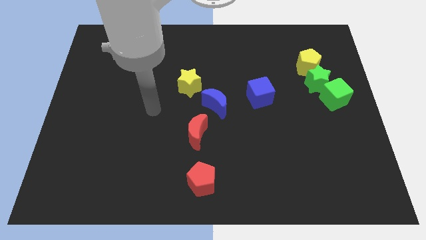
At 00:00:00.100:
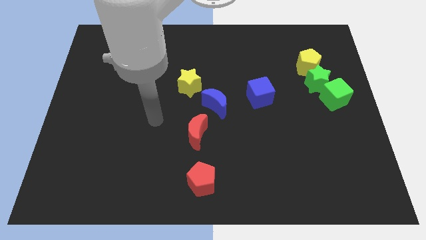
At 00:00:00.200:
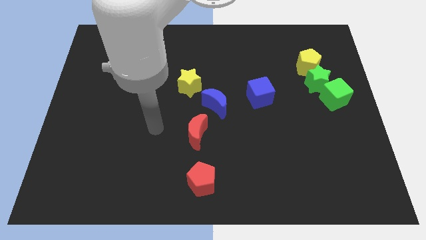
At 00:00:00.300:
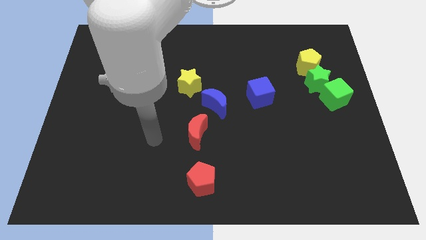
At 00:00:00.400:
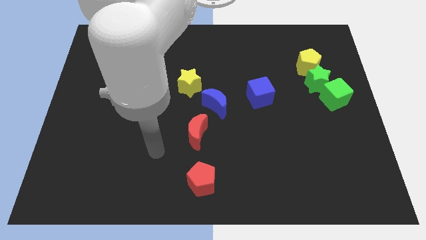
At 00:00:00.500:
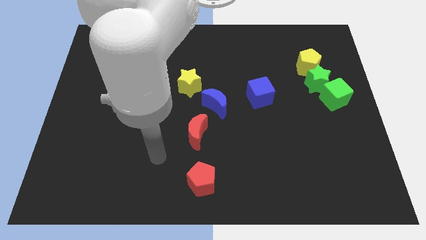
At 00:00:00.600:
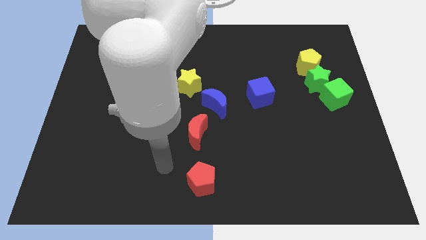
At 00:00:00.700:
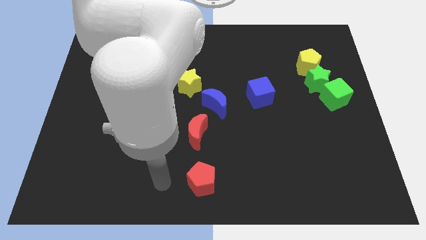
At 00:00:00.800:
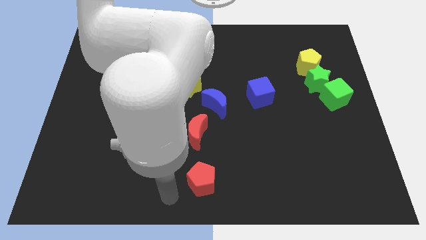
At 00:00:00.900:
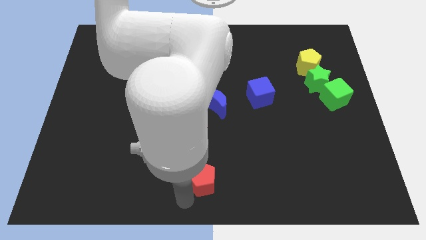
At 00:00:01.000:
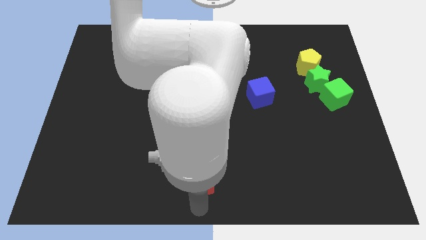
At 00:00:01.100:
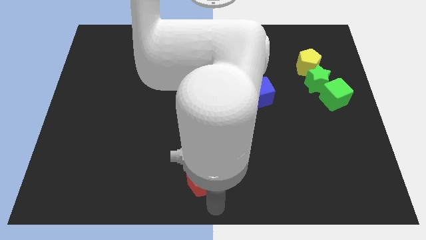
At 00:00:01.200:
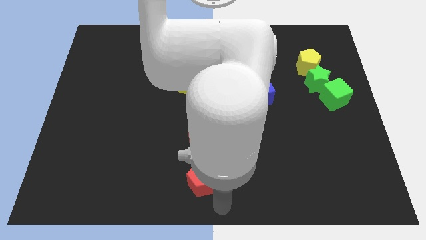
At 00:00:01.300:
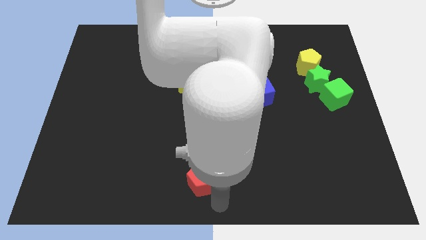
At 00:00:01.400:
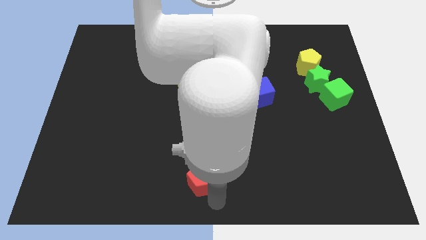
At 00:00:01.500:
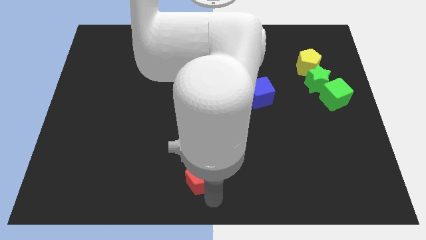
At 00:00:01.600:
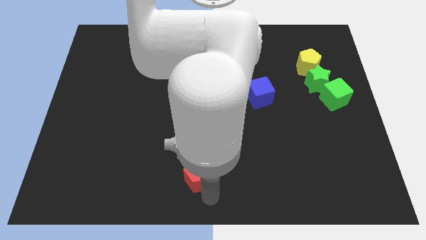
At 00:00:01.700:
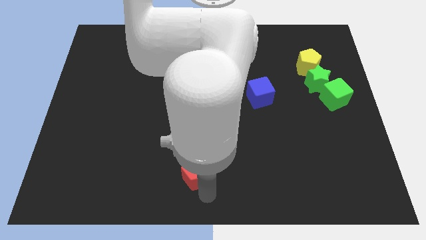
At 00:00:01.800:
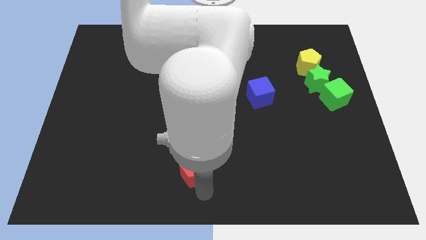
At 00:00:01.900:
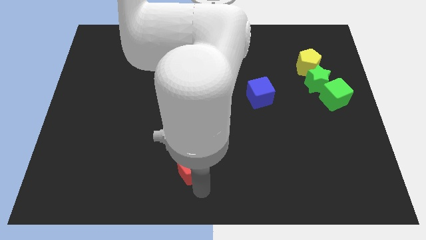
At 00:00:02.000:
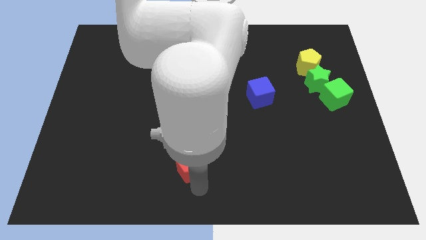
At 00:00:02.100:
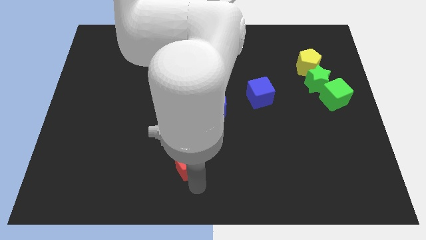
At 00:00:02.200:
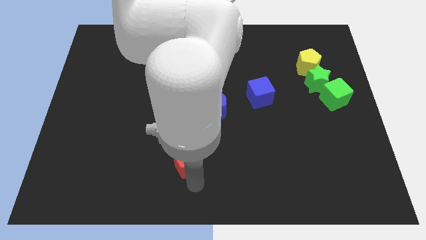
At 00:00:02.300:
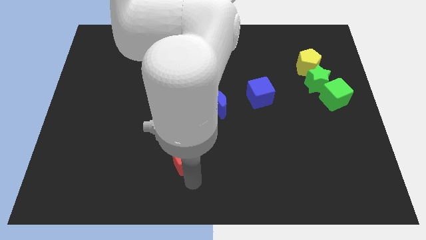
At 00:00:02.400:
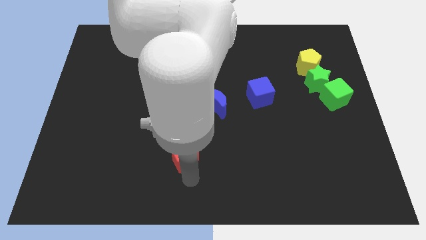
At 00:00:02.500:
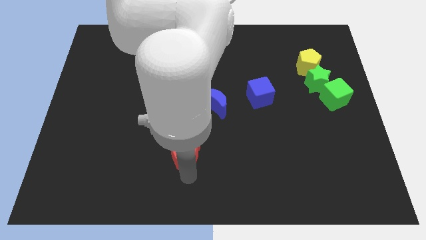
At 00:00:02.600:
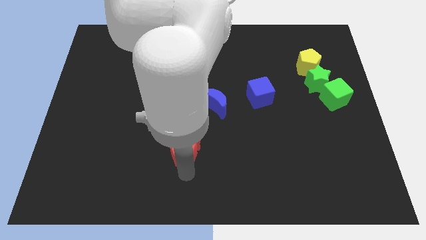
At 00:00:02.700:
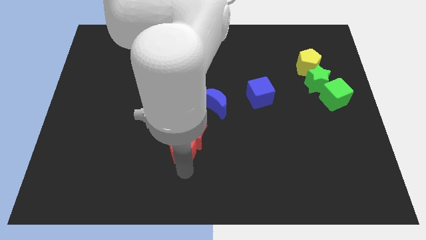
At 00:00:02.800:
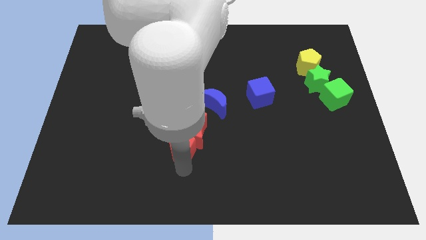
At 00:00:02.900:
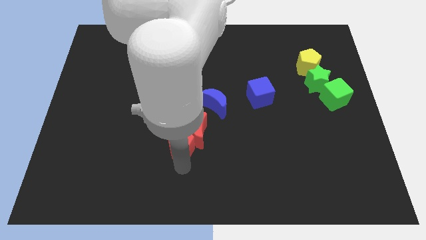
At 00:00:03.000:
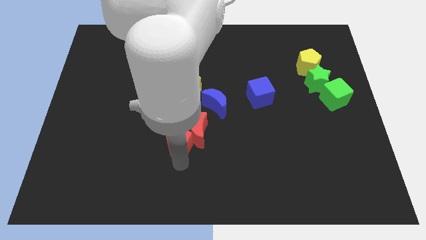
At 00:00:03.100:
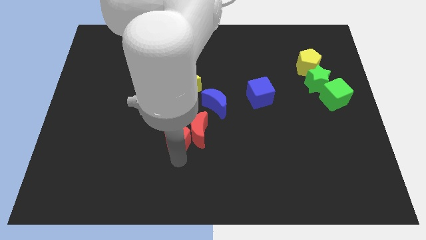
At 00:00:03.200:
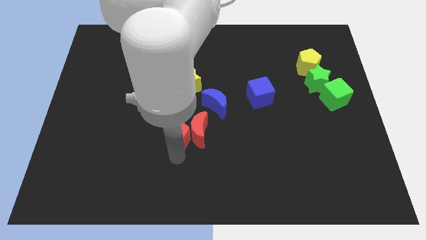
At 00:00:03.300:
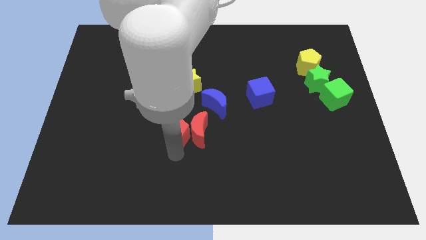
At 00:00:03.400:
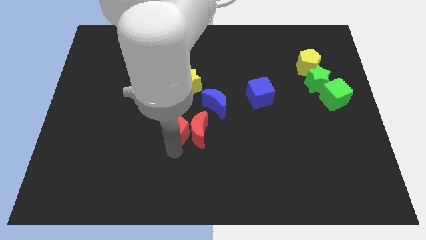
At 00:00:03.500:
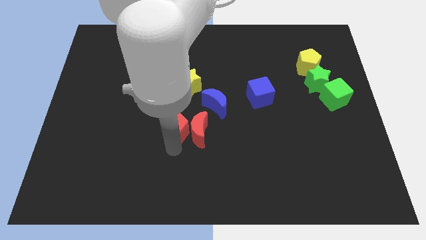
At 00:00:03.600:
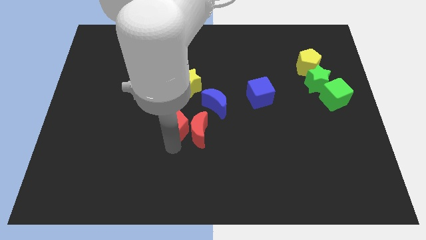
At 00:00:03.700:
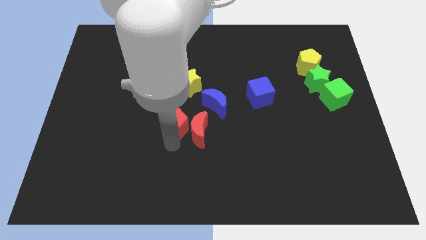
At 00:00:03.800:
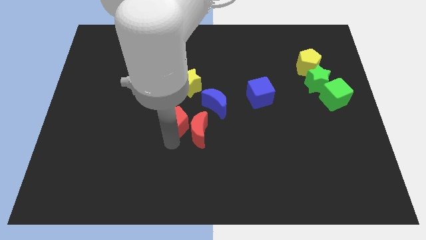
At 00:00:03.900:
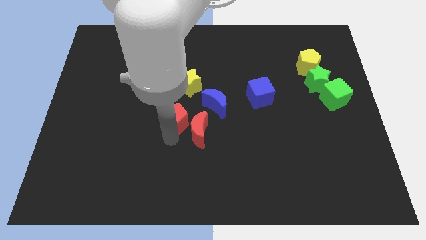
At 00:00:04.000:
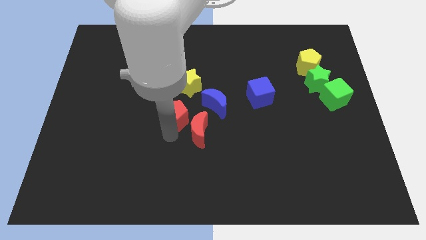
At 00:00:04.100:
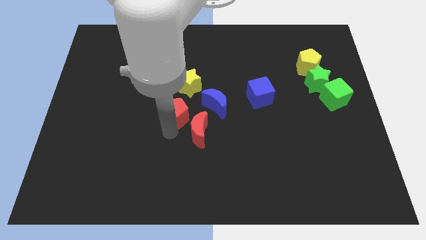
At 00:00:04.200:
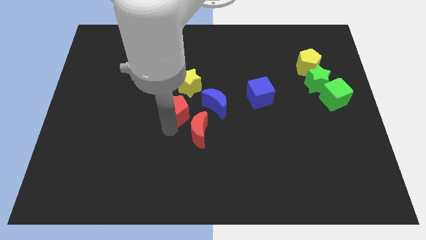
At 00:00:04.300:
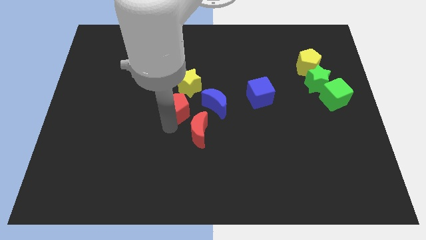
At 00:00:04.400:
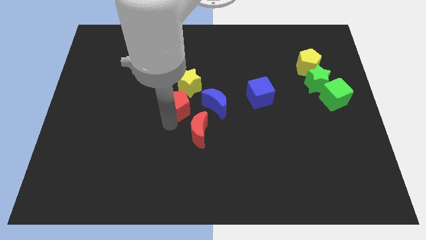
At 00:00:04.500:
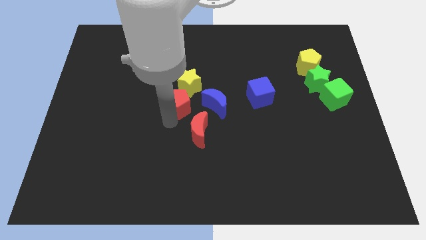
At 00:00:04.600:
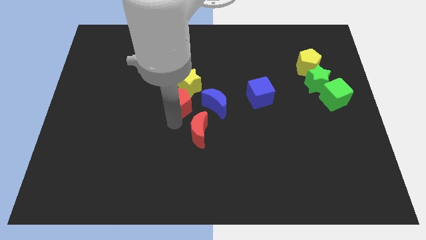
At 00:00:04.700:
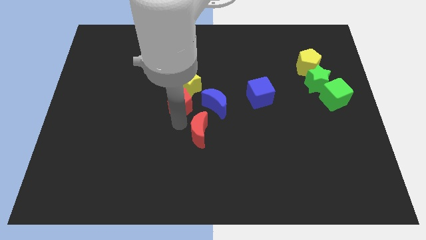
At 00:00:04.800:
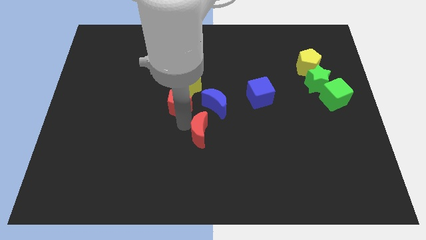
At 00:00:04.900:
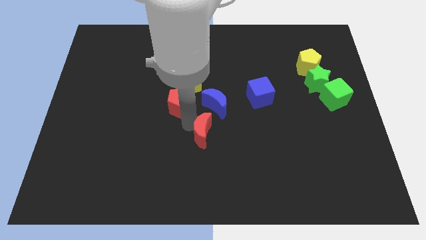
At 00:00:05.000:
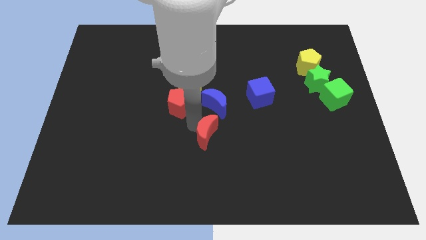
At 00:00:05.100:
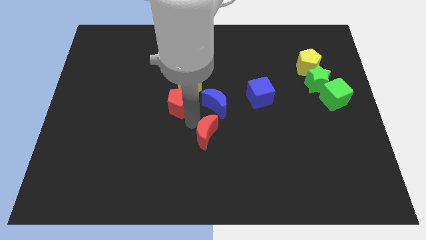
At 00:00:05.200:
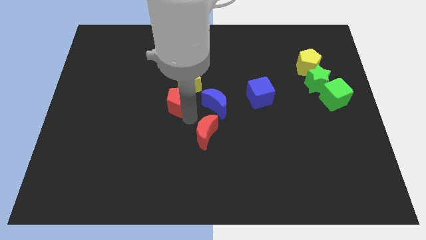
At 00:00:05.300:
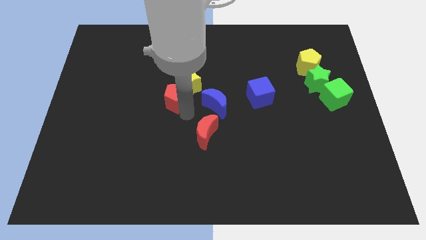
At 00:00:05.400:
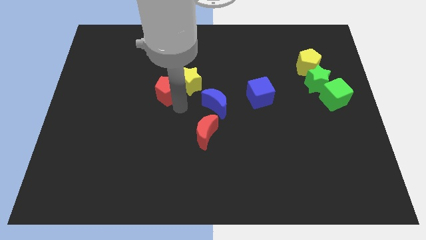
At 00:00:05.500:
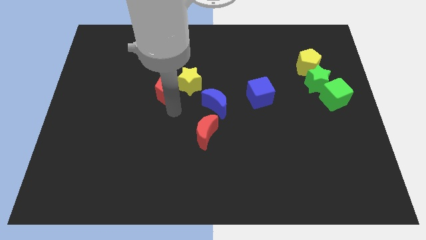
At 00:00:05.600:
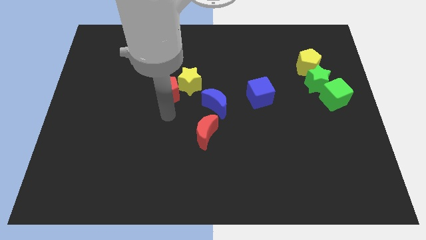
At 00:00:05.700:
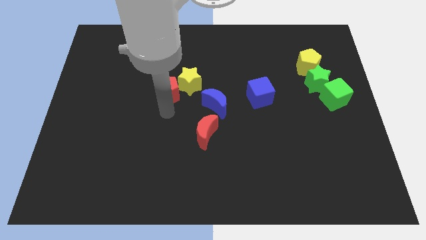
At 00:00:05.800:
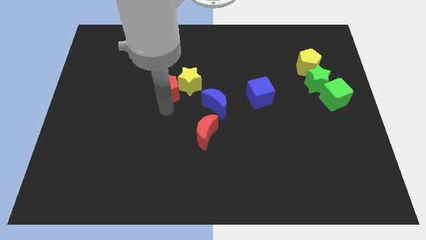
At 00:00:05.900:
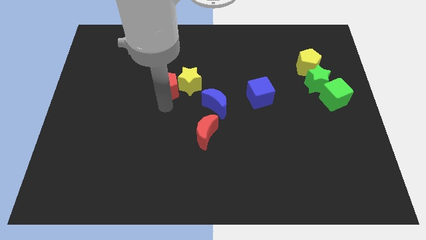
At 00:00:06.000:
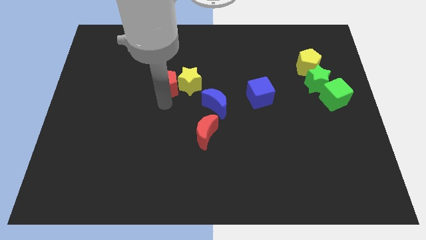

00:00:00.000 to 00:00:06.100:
push the red pentagon to the top left side of the yellow star
